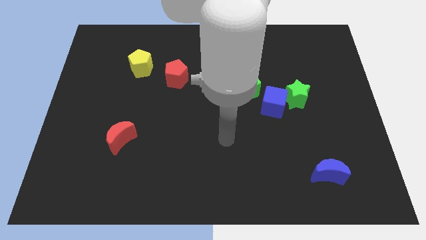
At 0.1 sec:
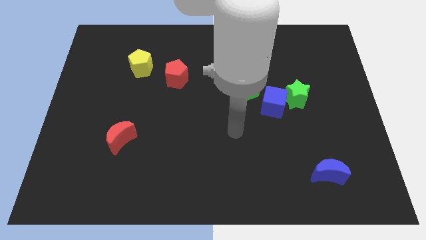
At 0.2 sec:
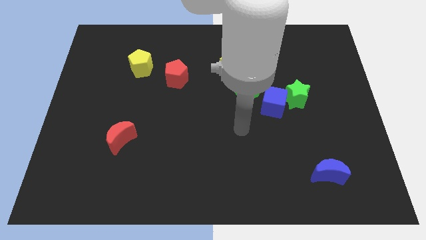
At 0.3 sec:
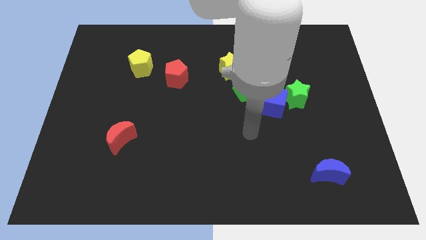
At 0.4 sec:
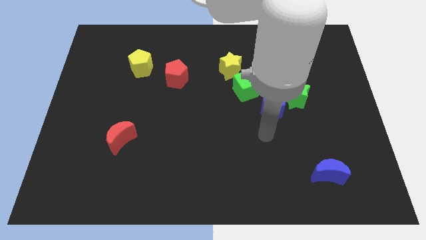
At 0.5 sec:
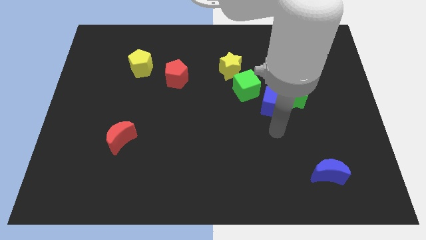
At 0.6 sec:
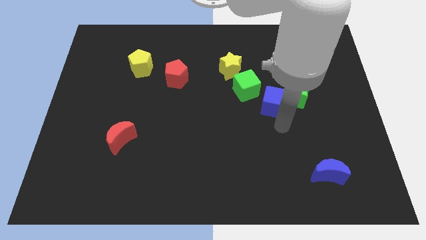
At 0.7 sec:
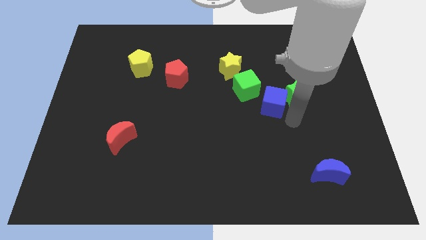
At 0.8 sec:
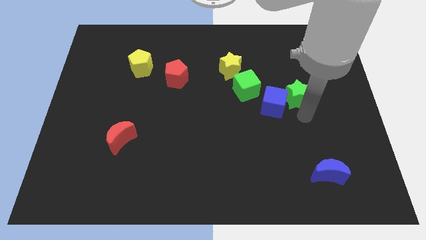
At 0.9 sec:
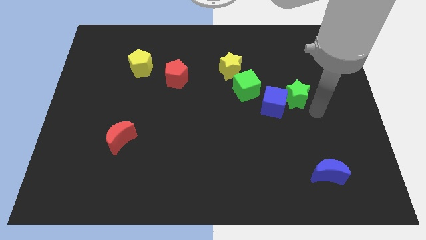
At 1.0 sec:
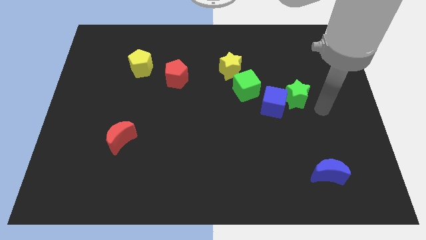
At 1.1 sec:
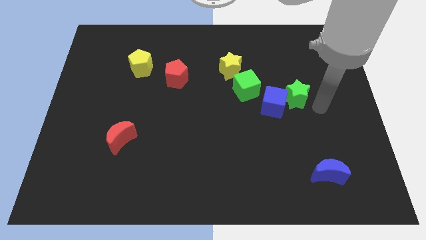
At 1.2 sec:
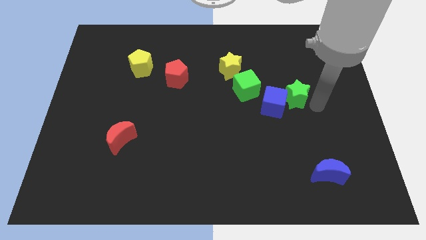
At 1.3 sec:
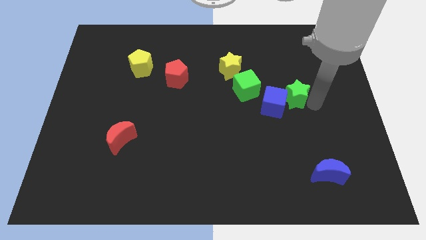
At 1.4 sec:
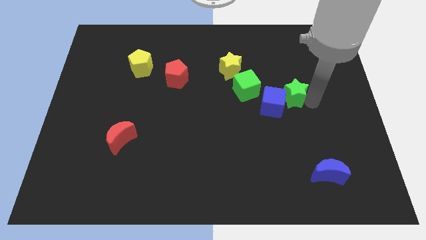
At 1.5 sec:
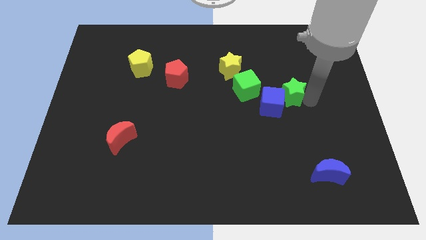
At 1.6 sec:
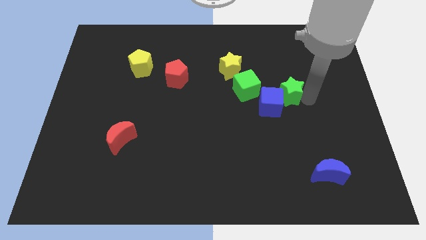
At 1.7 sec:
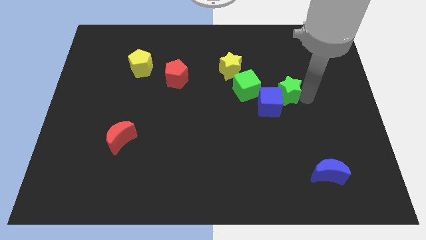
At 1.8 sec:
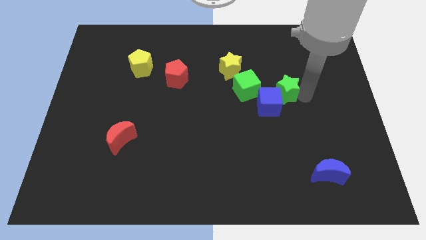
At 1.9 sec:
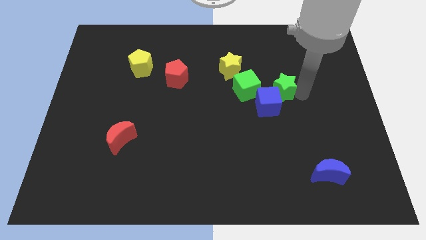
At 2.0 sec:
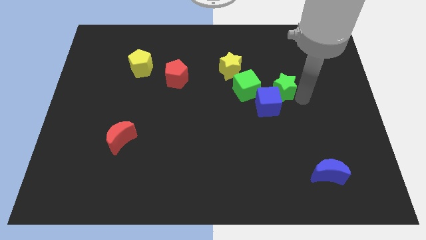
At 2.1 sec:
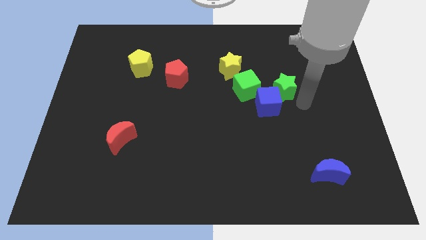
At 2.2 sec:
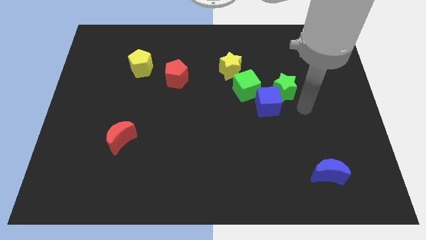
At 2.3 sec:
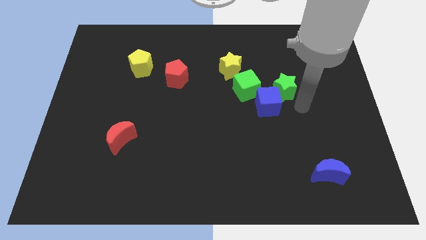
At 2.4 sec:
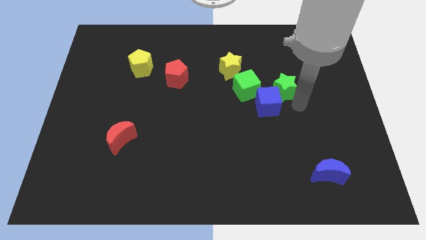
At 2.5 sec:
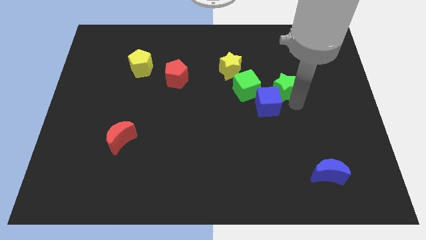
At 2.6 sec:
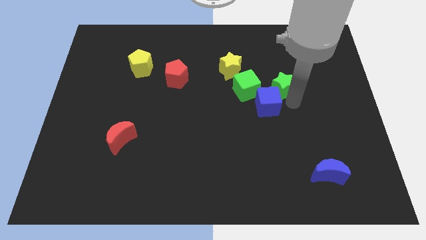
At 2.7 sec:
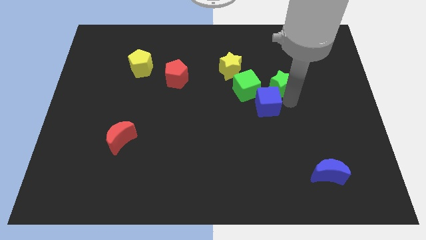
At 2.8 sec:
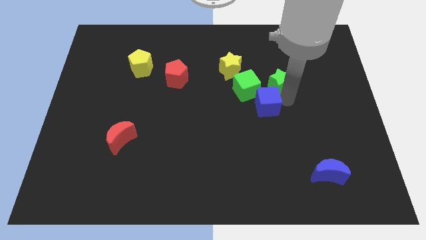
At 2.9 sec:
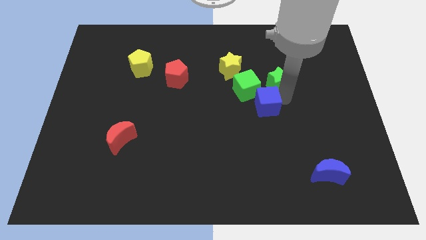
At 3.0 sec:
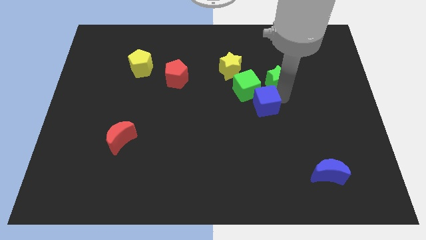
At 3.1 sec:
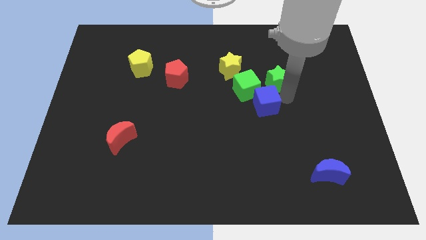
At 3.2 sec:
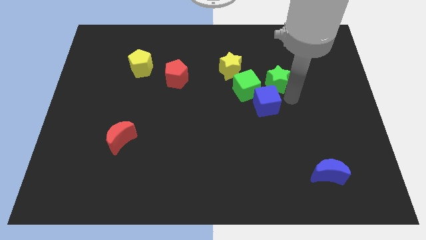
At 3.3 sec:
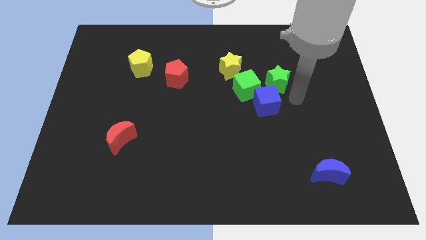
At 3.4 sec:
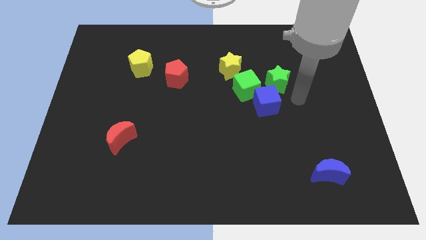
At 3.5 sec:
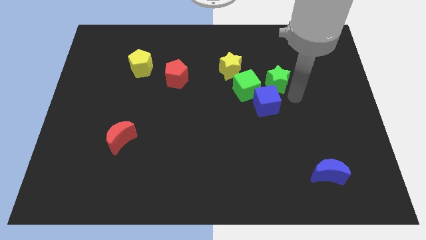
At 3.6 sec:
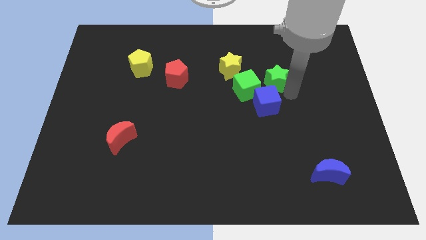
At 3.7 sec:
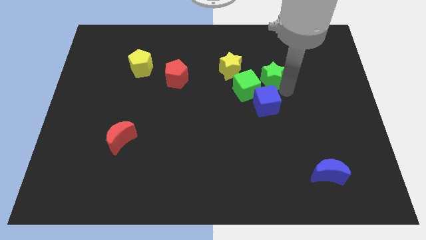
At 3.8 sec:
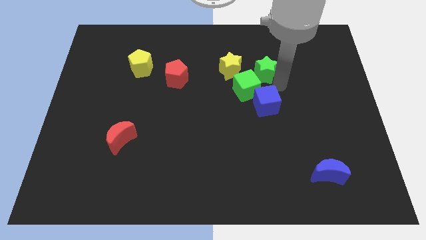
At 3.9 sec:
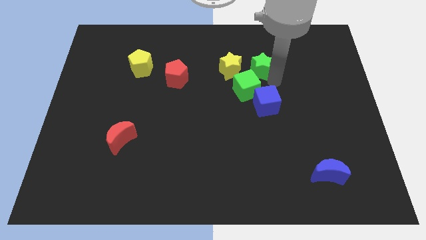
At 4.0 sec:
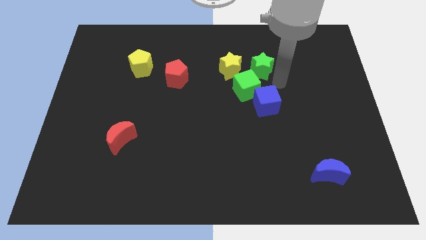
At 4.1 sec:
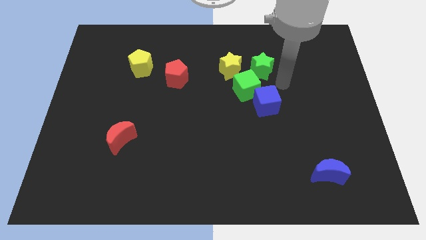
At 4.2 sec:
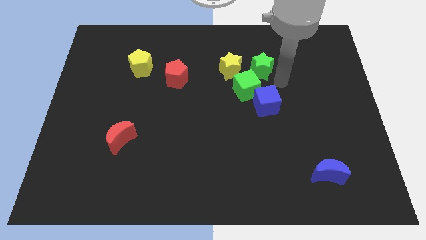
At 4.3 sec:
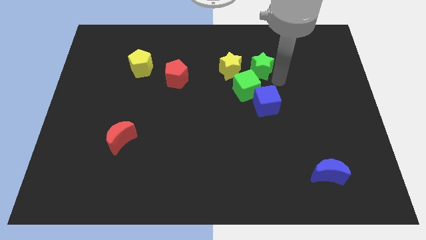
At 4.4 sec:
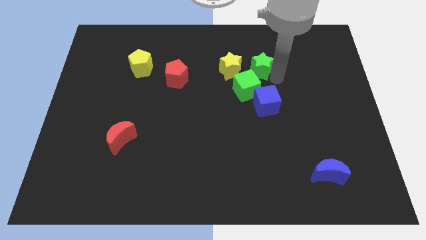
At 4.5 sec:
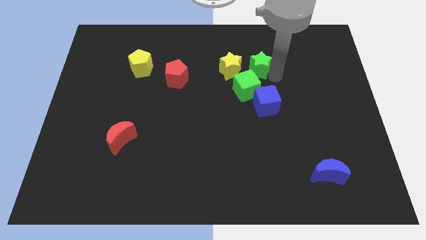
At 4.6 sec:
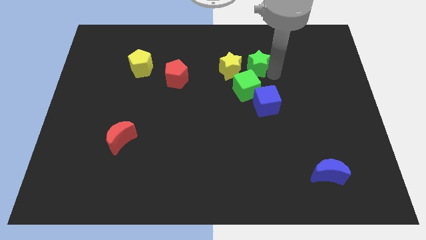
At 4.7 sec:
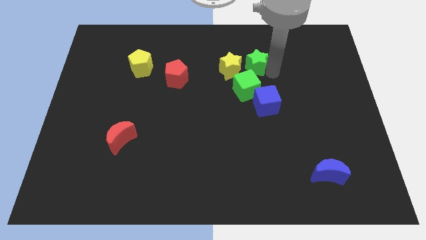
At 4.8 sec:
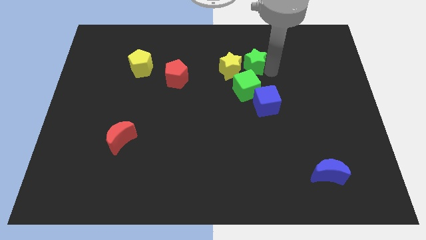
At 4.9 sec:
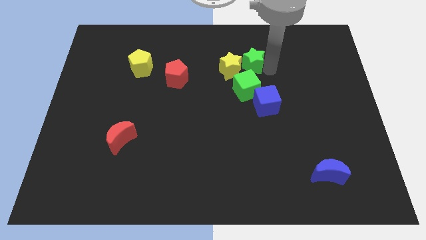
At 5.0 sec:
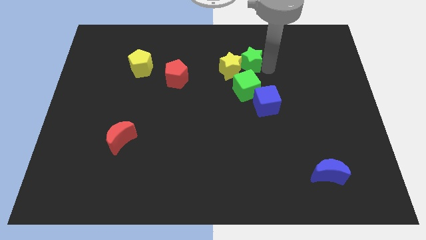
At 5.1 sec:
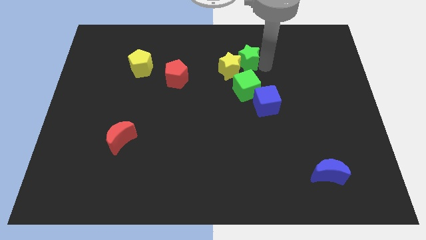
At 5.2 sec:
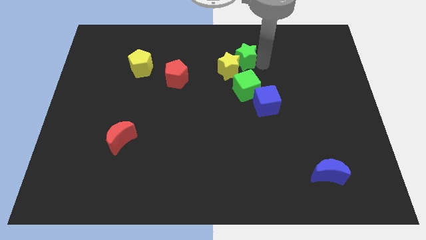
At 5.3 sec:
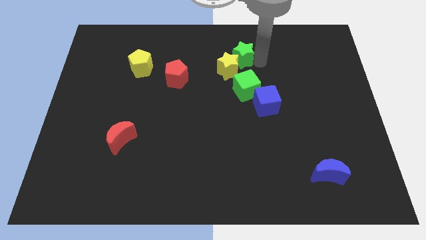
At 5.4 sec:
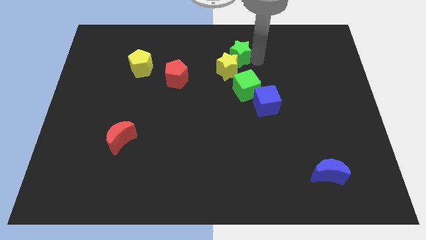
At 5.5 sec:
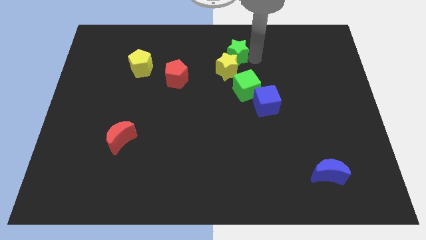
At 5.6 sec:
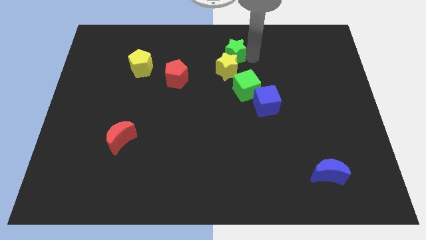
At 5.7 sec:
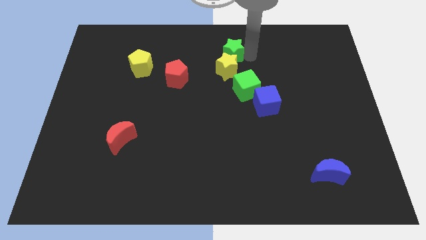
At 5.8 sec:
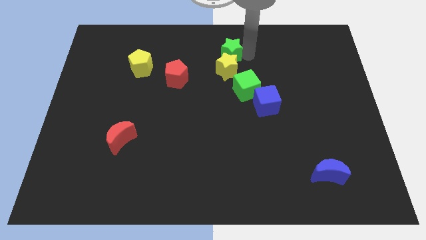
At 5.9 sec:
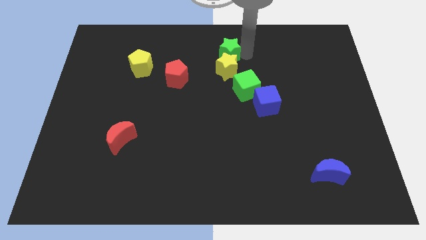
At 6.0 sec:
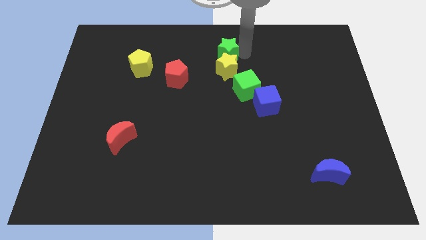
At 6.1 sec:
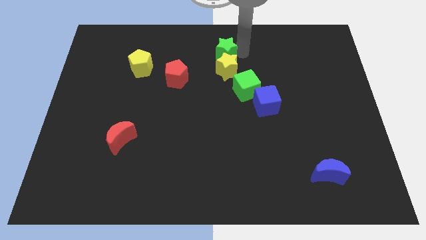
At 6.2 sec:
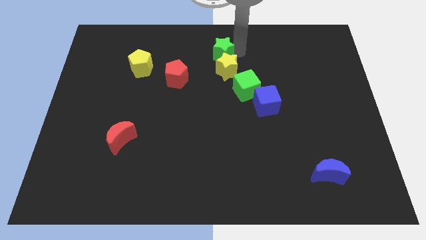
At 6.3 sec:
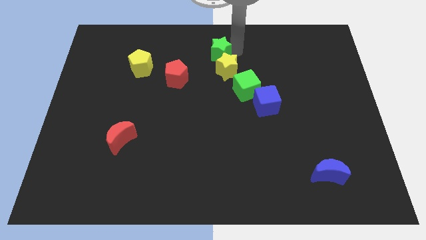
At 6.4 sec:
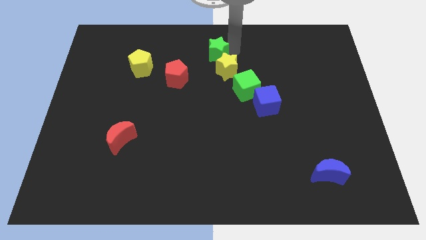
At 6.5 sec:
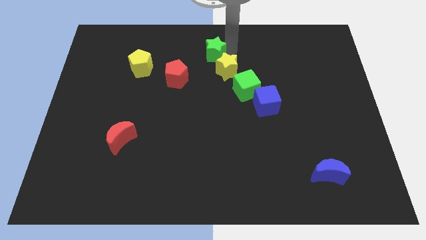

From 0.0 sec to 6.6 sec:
move the green star to the top right of the red pentagon
